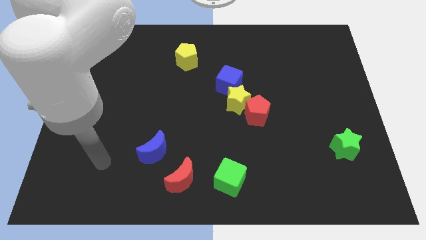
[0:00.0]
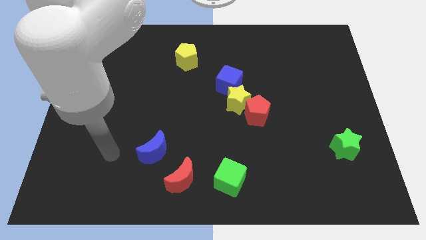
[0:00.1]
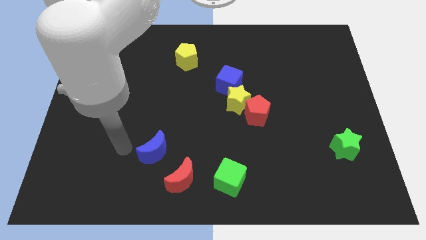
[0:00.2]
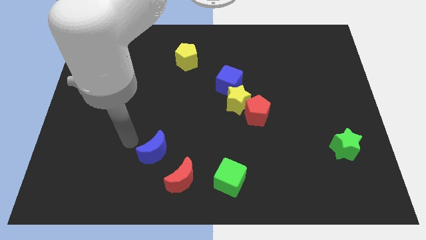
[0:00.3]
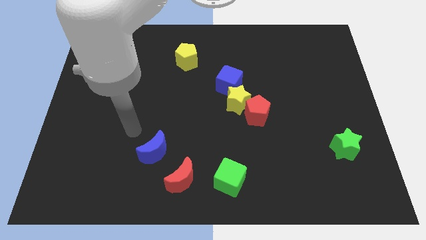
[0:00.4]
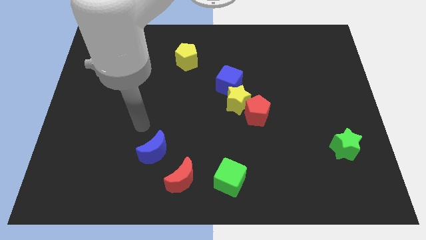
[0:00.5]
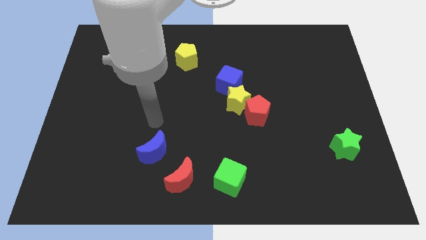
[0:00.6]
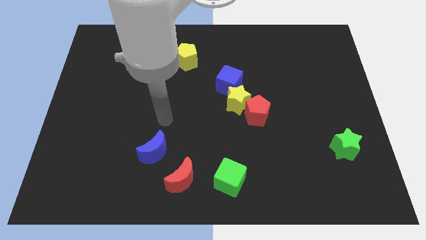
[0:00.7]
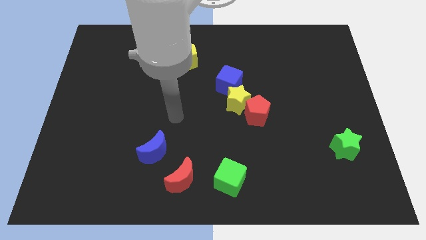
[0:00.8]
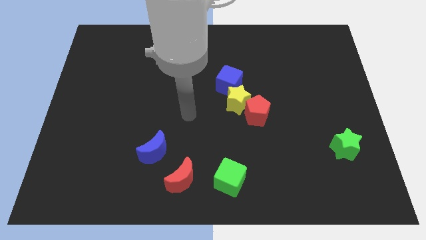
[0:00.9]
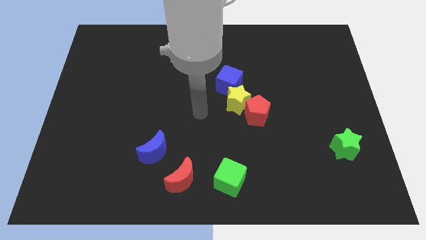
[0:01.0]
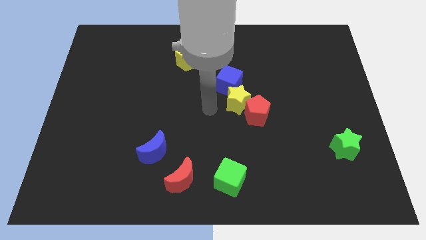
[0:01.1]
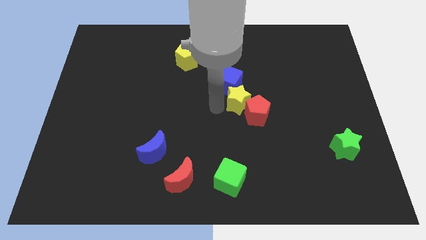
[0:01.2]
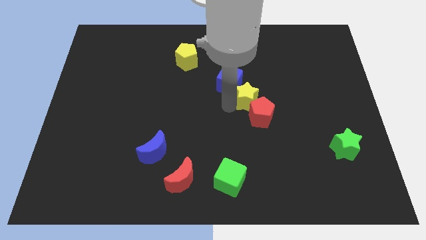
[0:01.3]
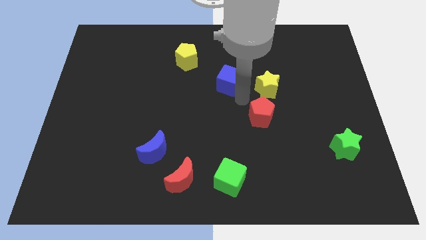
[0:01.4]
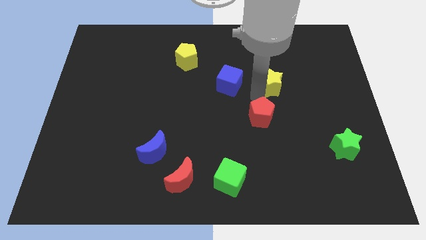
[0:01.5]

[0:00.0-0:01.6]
separate the red pentagon from the yellow star

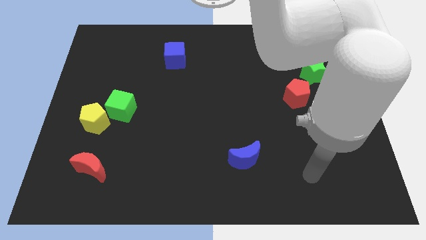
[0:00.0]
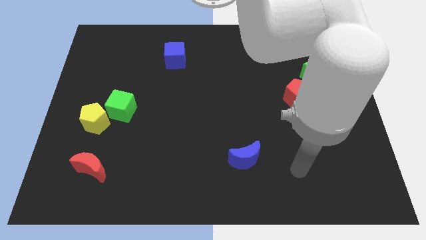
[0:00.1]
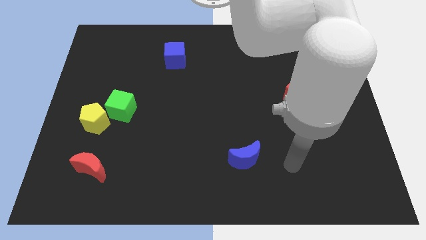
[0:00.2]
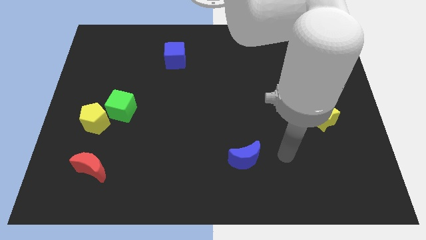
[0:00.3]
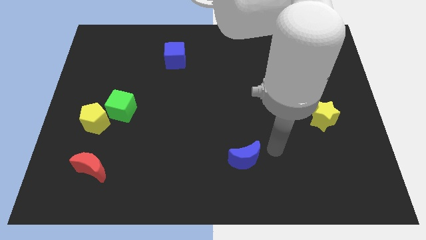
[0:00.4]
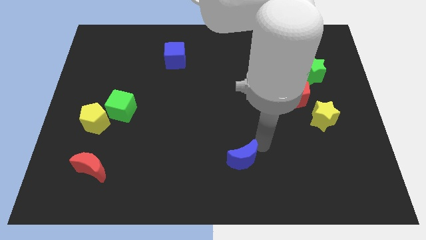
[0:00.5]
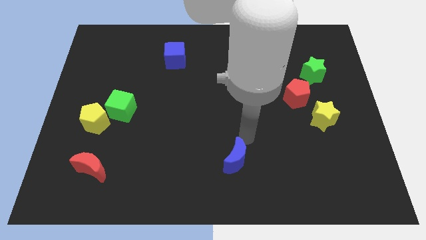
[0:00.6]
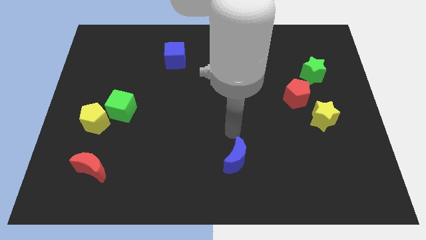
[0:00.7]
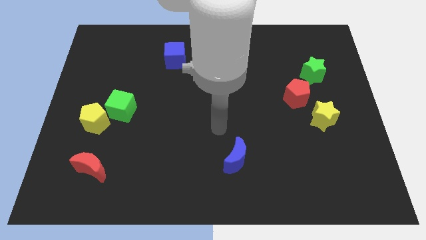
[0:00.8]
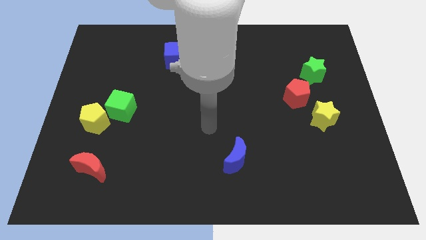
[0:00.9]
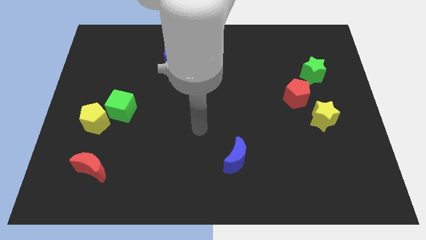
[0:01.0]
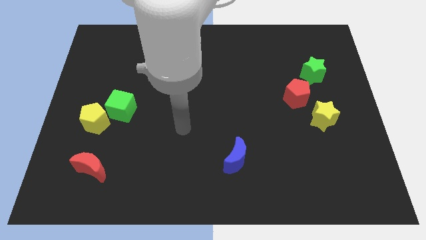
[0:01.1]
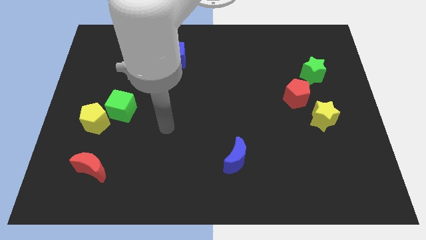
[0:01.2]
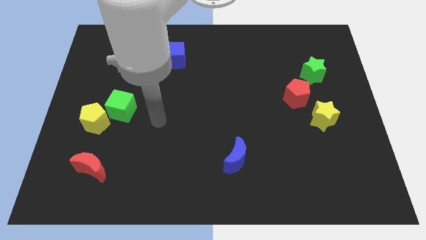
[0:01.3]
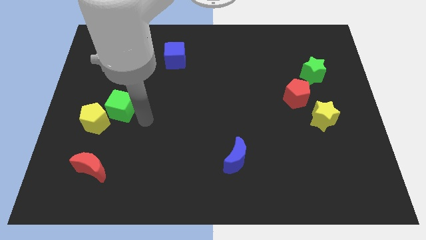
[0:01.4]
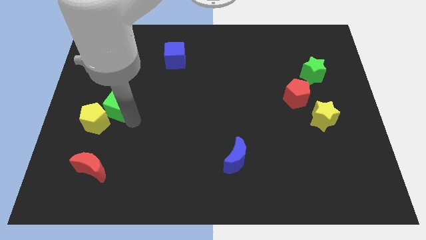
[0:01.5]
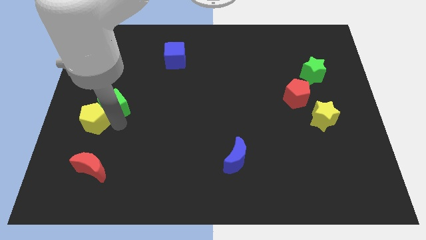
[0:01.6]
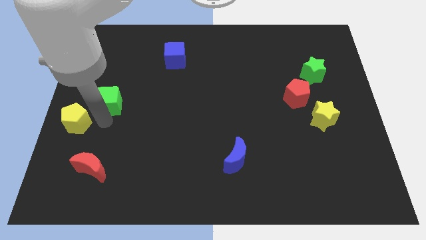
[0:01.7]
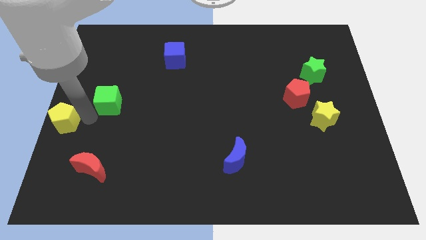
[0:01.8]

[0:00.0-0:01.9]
move the green cube away from the yellow pentagon

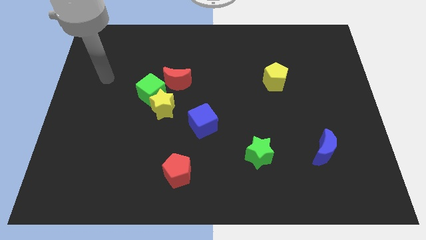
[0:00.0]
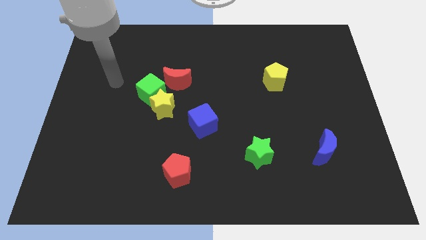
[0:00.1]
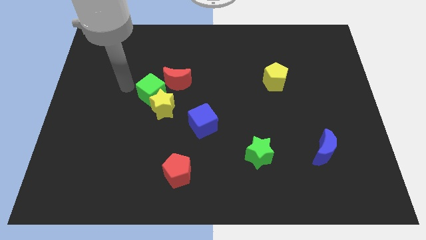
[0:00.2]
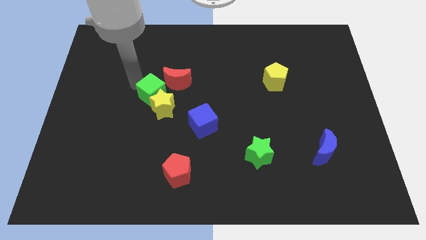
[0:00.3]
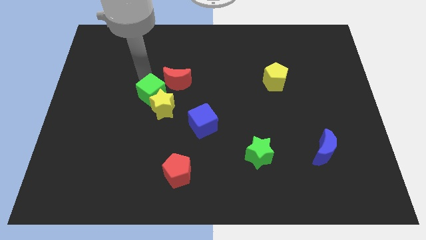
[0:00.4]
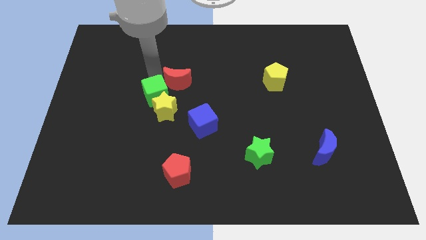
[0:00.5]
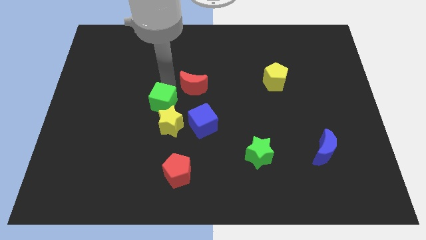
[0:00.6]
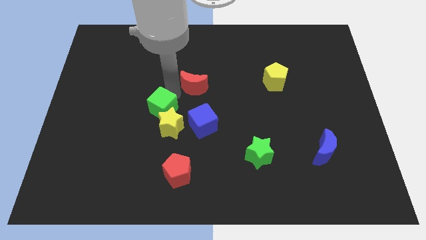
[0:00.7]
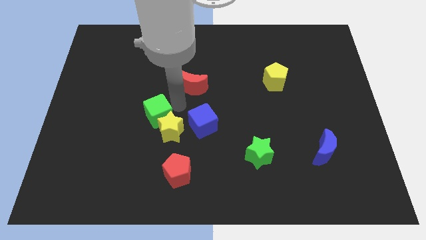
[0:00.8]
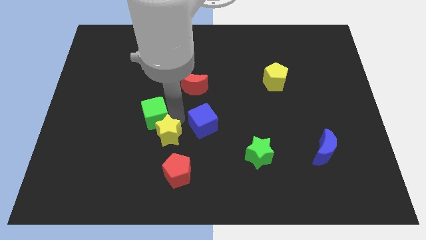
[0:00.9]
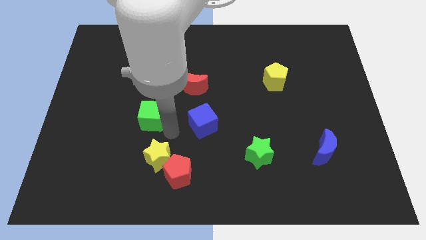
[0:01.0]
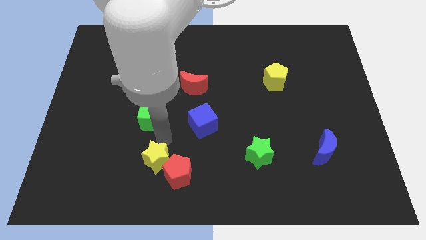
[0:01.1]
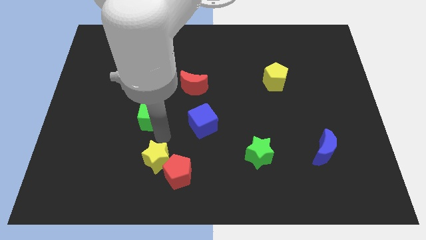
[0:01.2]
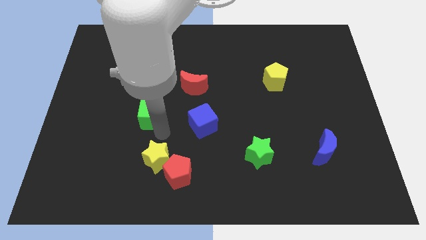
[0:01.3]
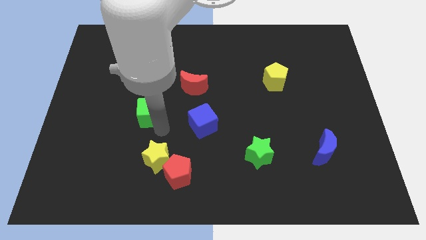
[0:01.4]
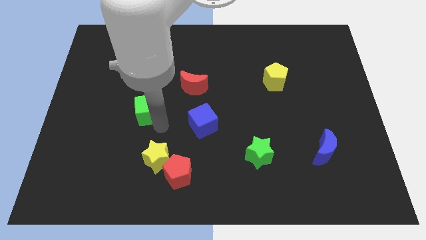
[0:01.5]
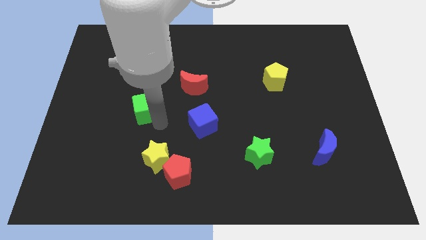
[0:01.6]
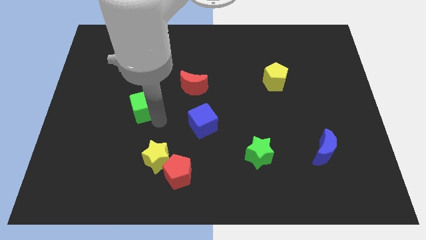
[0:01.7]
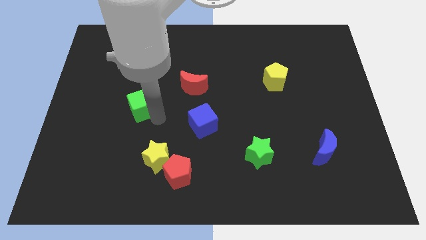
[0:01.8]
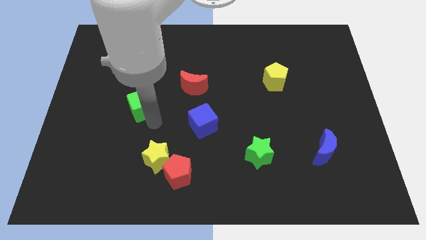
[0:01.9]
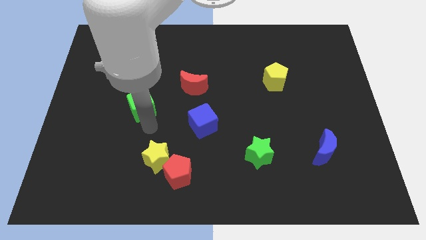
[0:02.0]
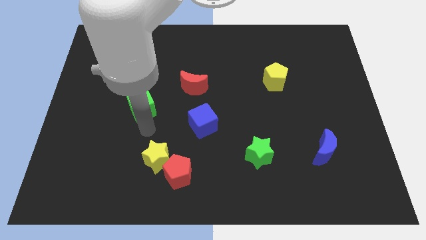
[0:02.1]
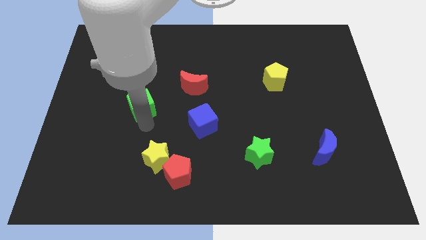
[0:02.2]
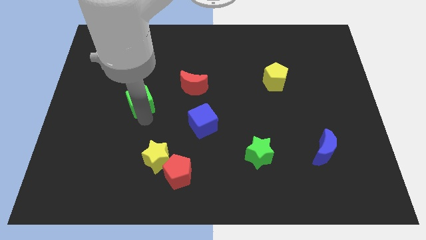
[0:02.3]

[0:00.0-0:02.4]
separate the green cube from the yellow star and red moon

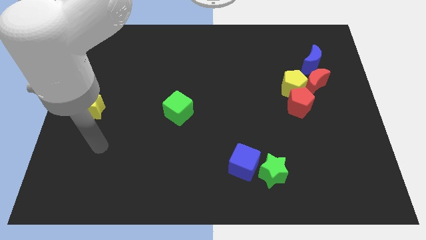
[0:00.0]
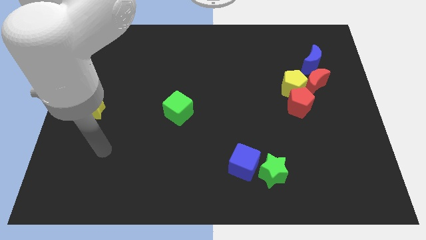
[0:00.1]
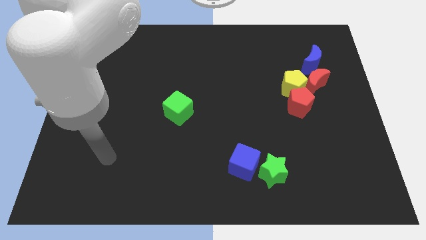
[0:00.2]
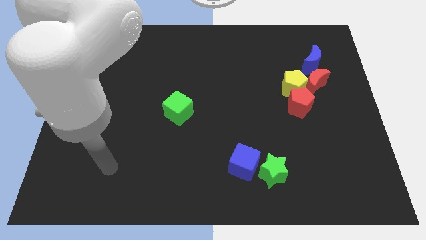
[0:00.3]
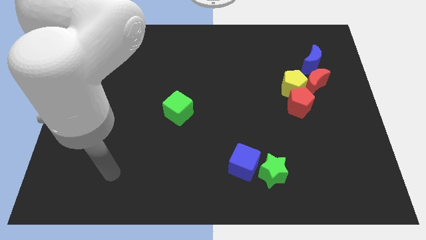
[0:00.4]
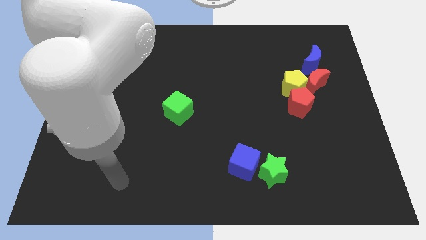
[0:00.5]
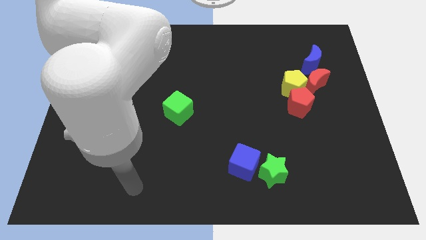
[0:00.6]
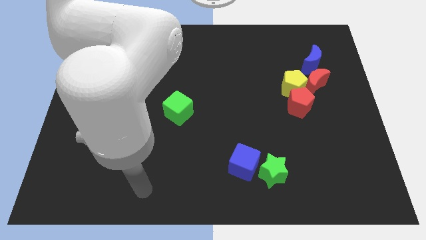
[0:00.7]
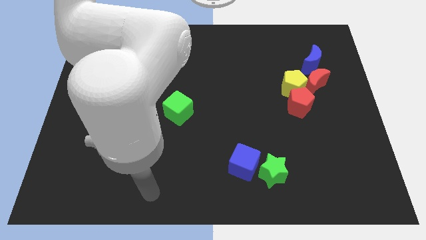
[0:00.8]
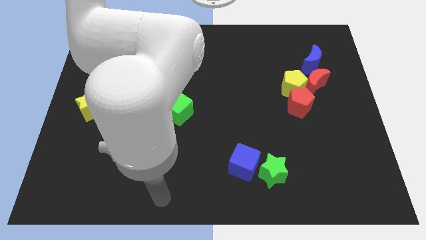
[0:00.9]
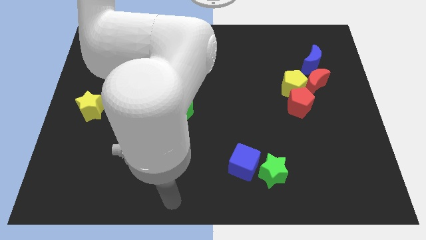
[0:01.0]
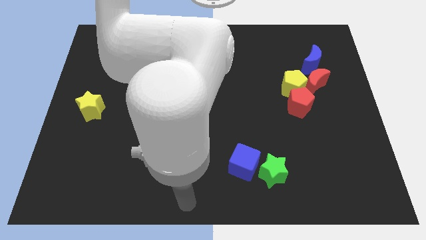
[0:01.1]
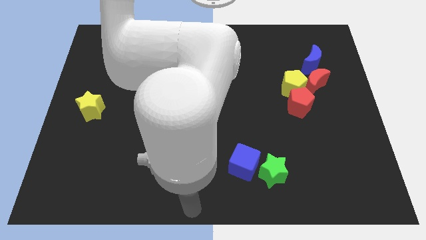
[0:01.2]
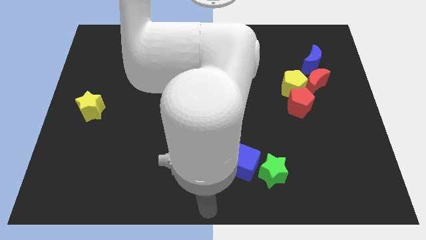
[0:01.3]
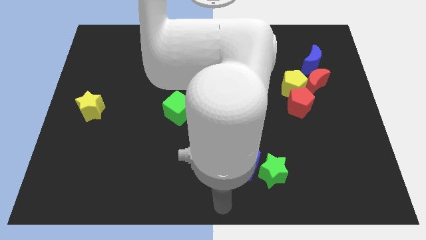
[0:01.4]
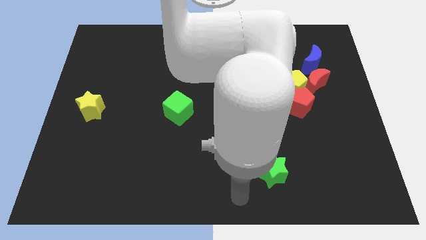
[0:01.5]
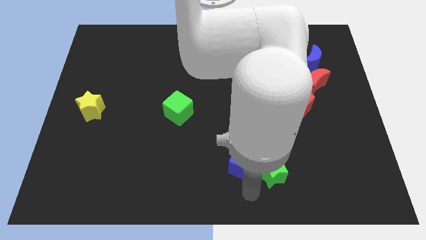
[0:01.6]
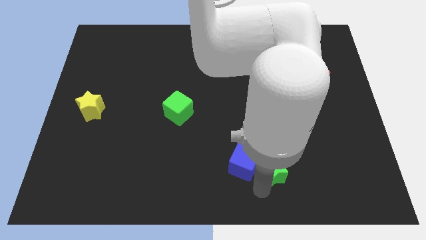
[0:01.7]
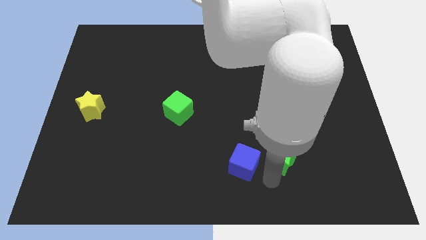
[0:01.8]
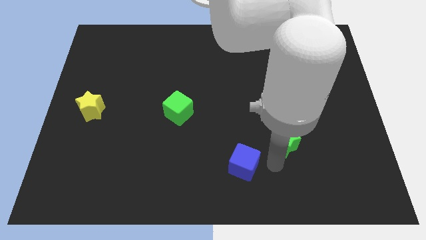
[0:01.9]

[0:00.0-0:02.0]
move the blue cube away from the green star
